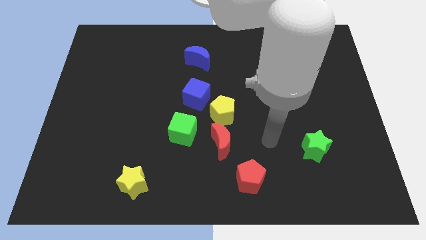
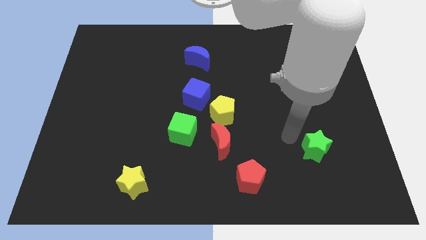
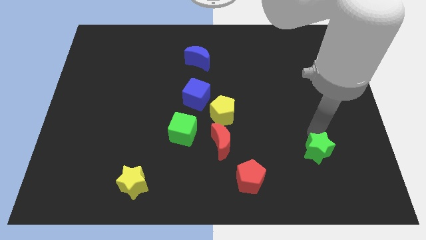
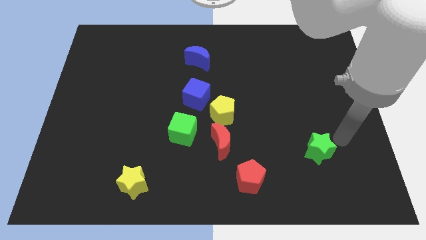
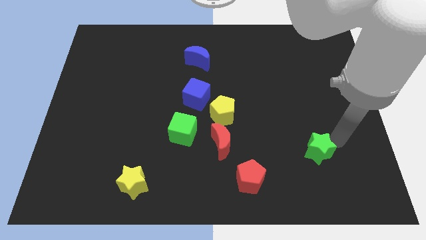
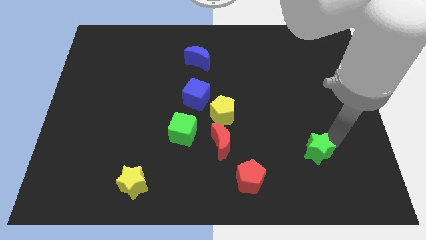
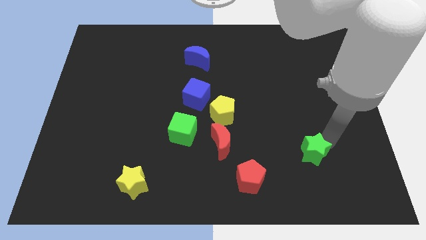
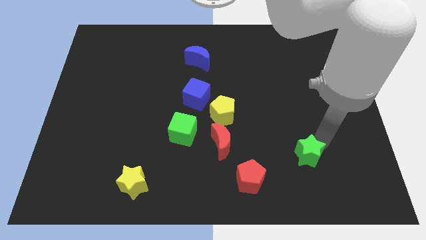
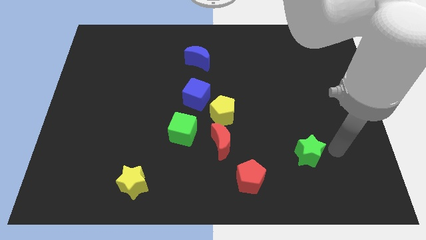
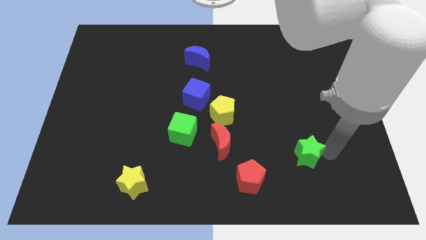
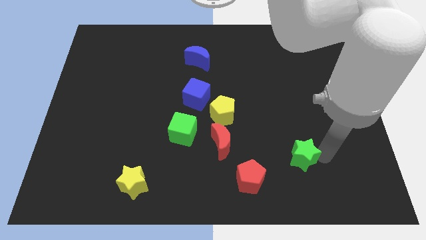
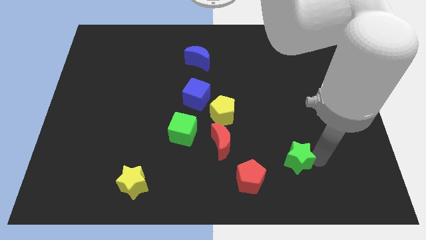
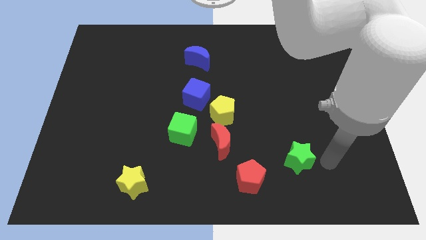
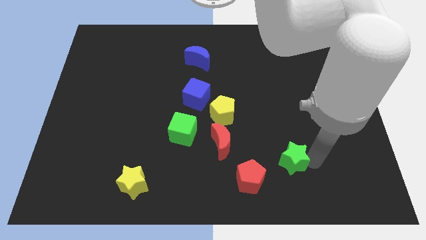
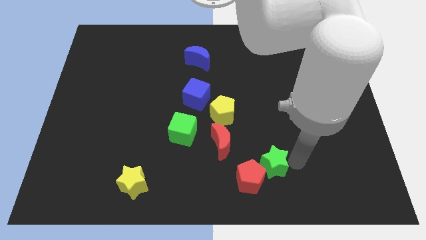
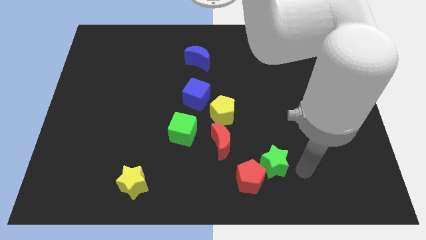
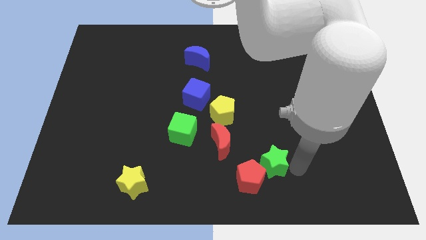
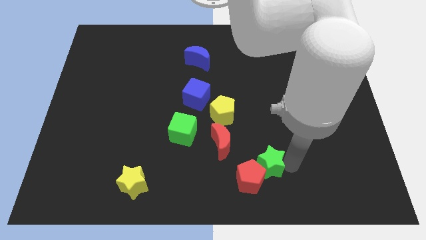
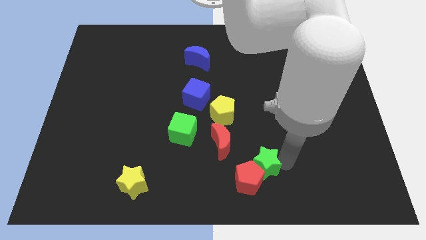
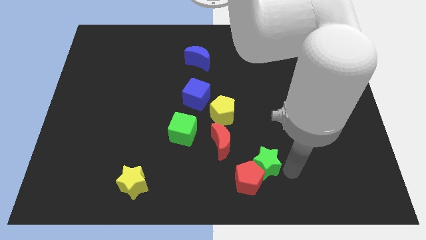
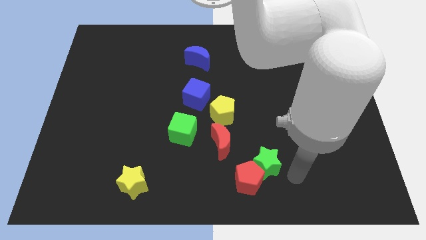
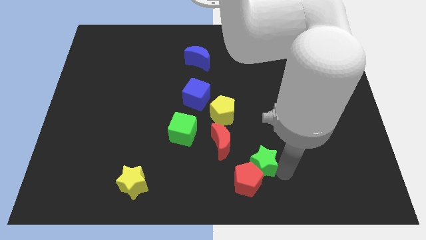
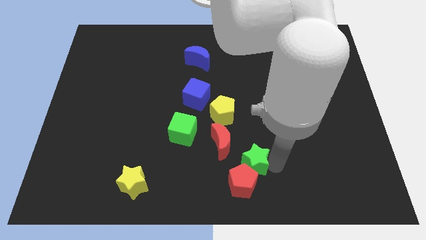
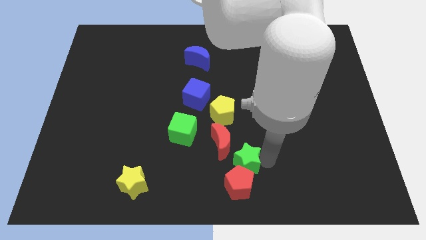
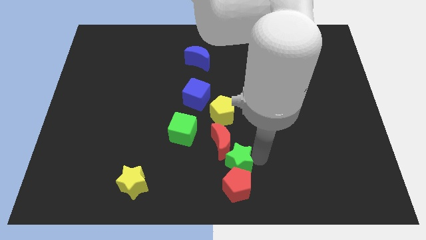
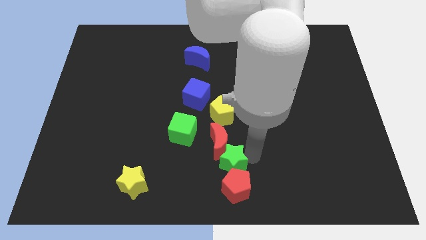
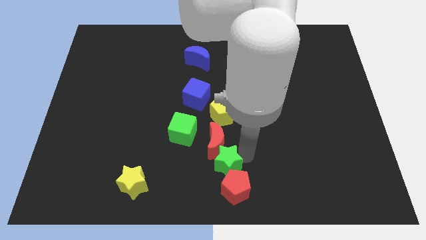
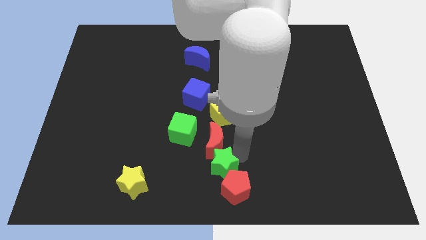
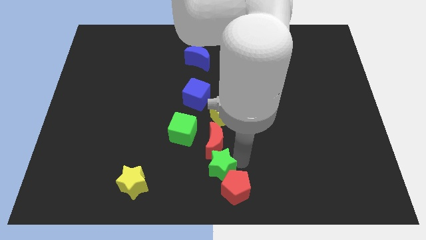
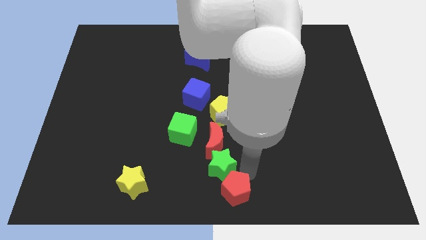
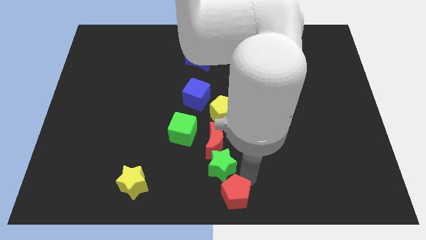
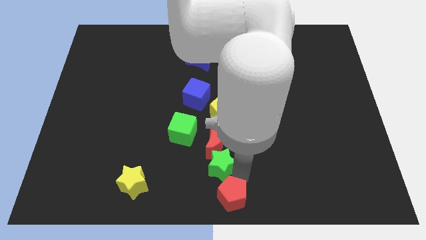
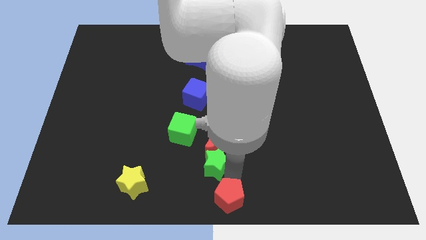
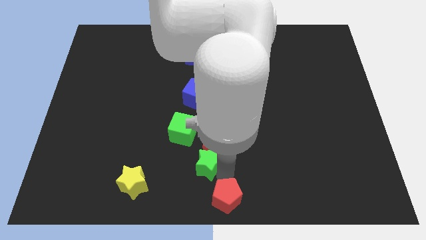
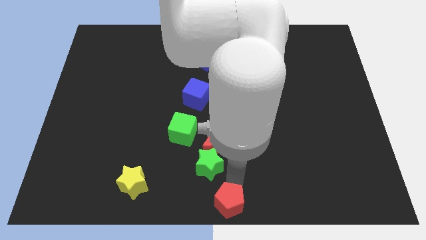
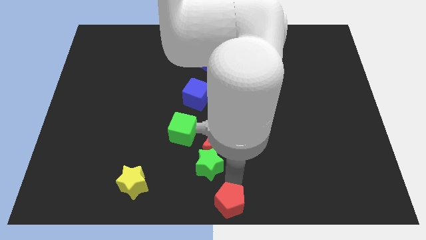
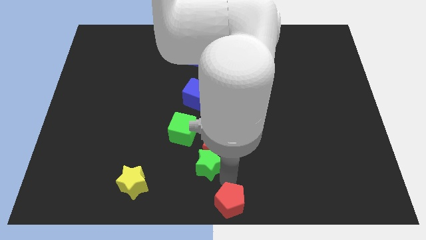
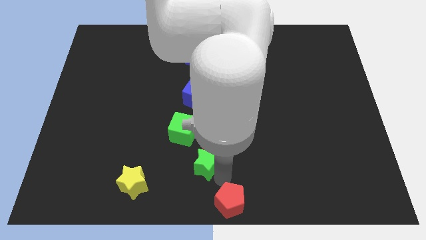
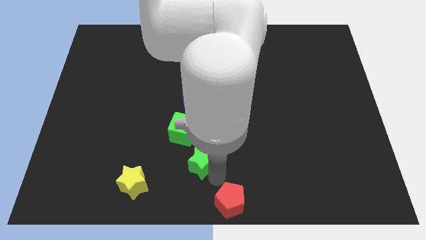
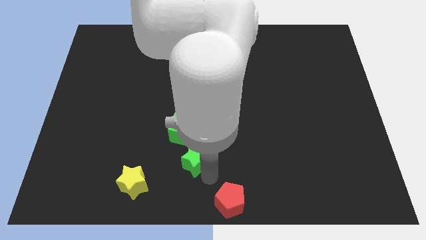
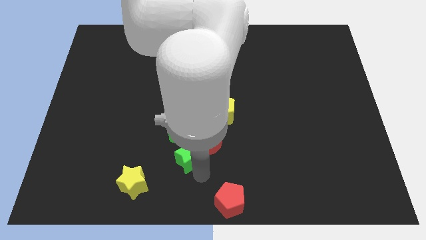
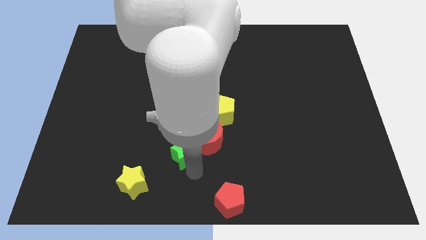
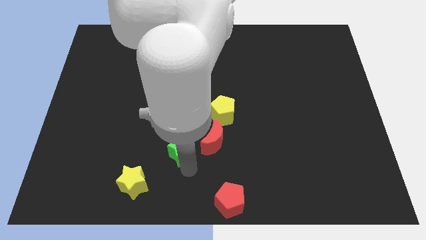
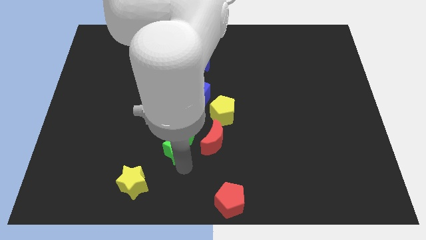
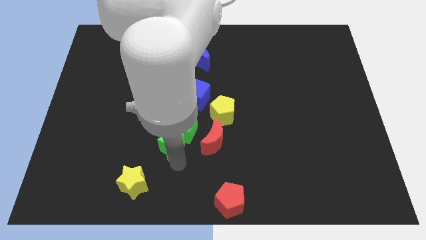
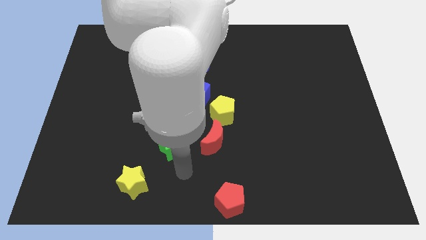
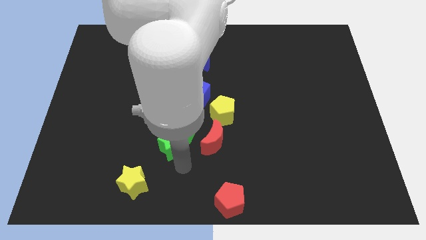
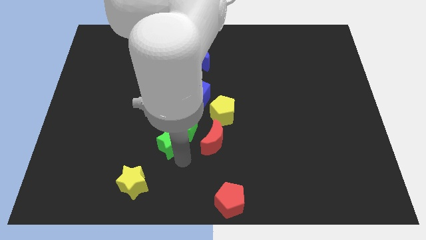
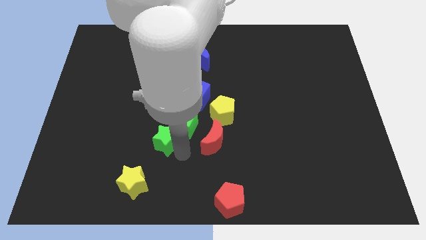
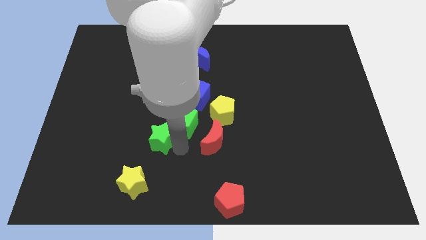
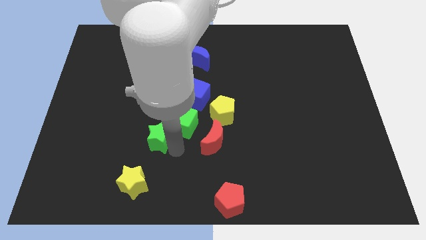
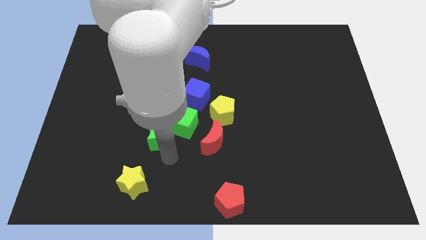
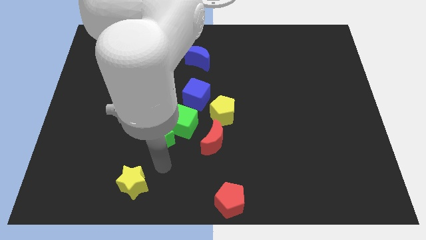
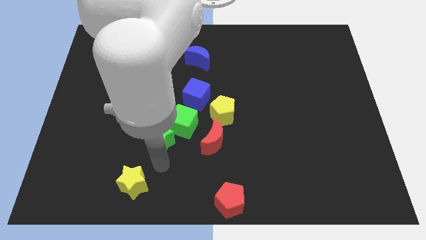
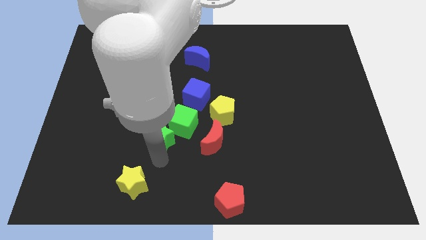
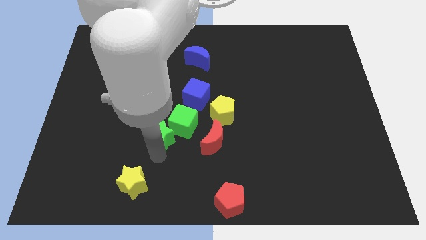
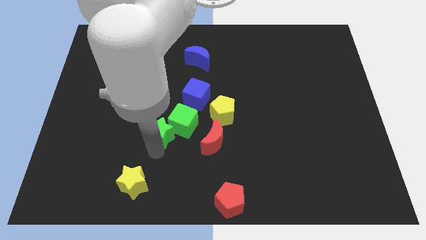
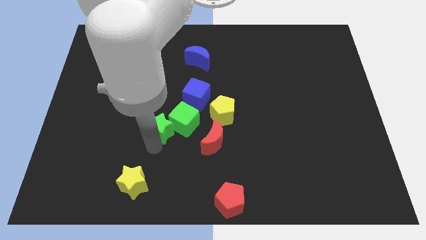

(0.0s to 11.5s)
push the green star to the bottom left of the blue cube

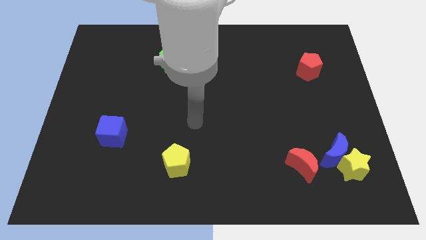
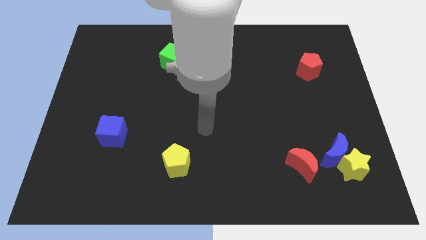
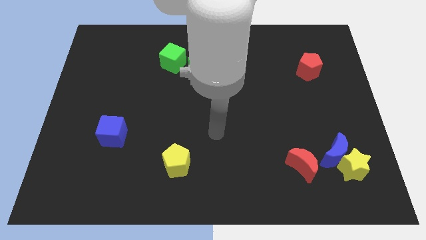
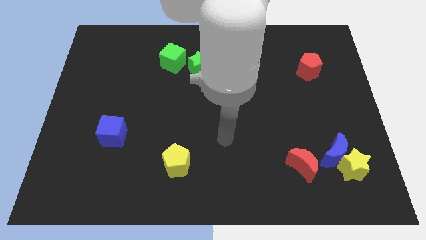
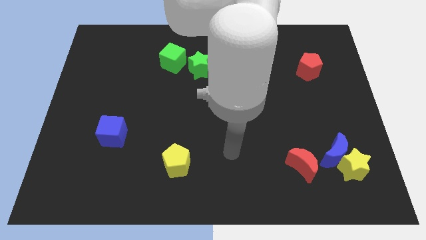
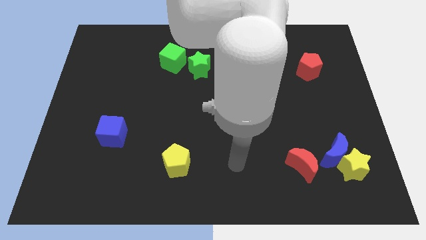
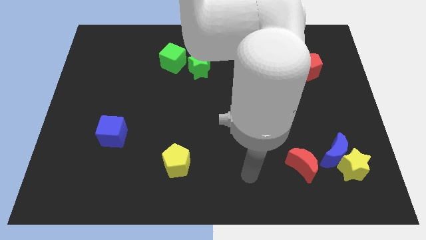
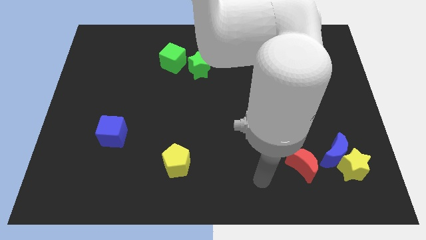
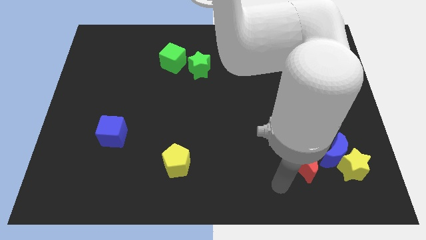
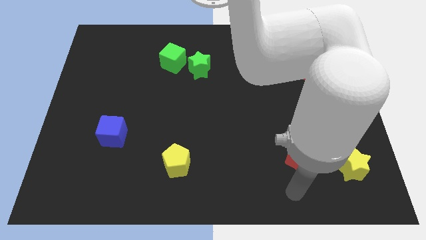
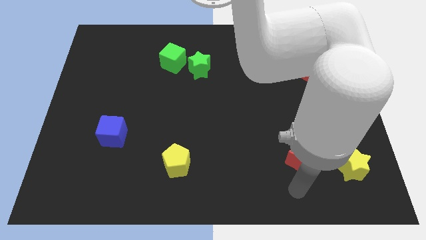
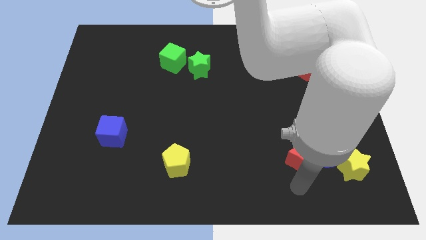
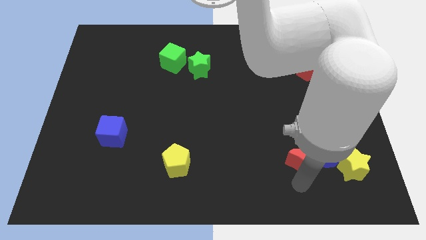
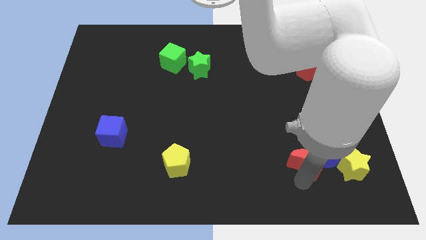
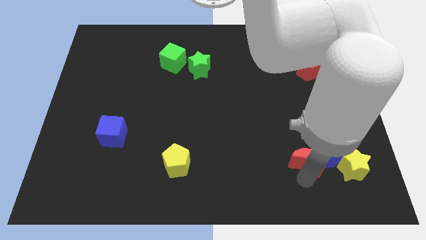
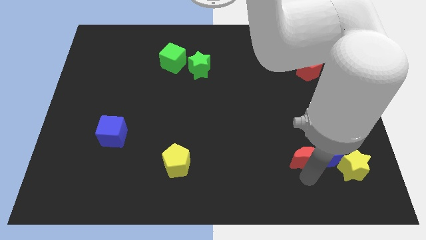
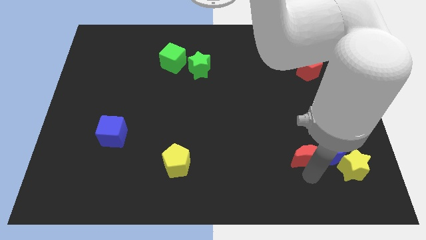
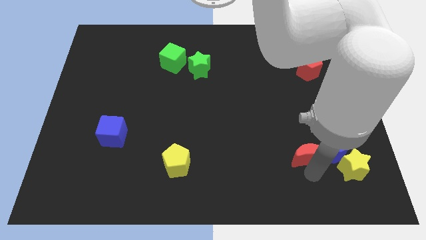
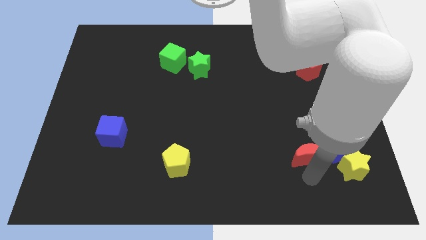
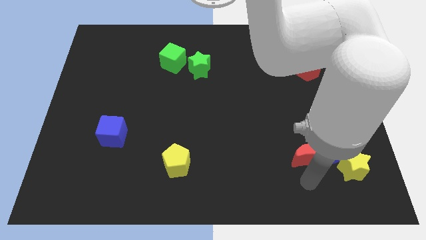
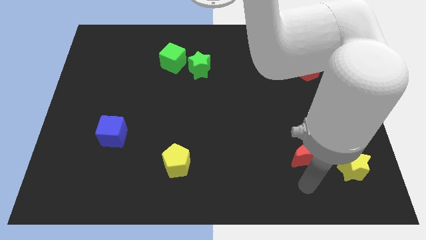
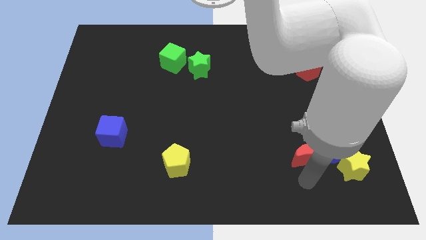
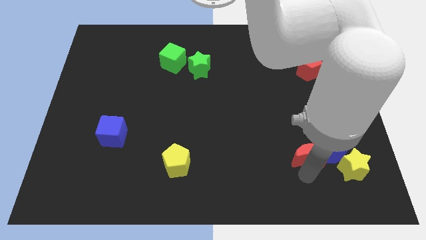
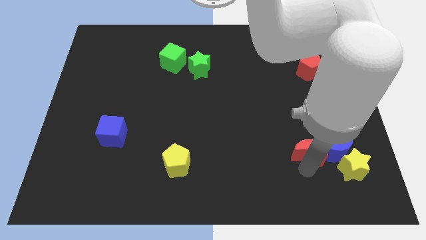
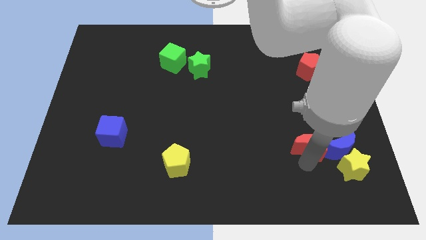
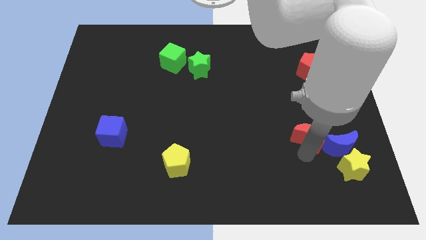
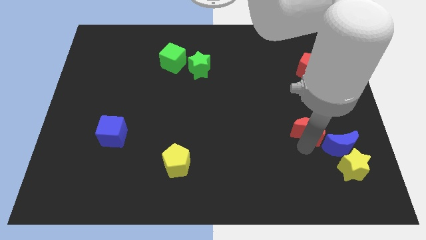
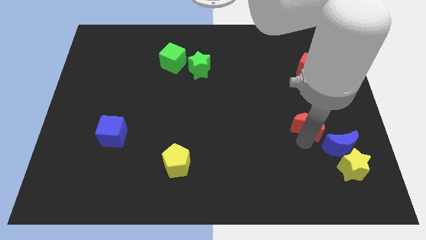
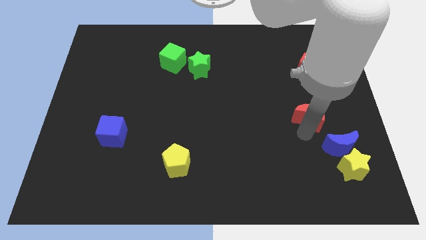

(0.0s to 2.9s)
move the red moon to the bottom of the red pentagon
